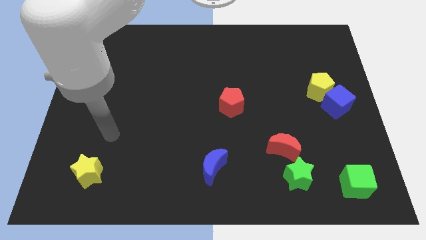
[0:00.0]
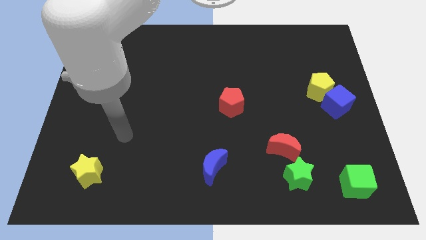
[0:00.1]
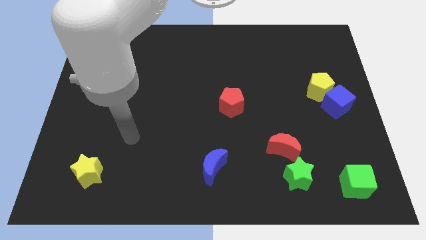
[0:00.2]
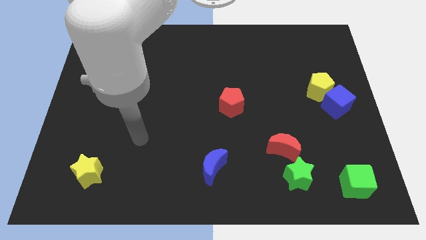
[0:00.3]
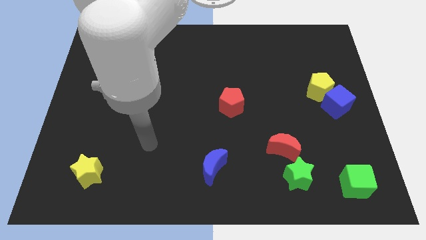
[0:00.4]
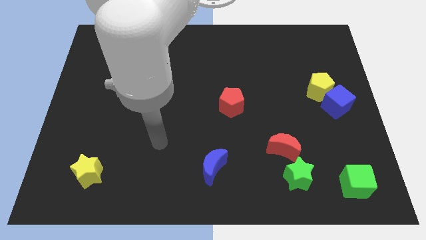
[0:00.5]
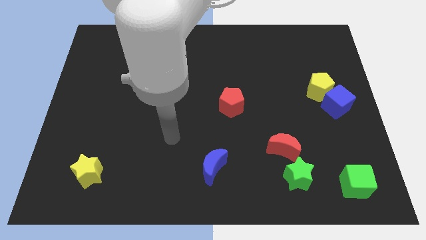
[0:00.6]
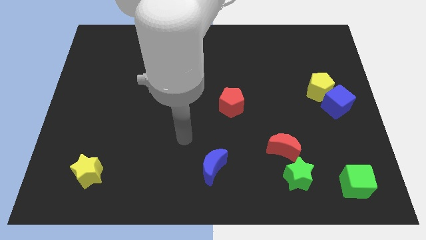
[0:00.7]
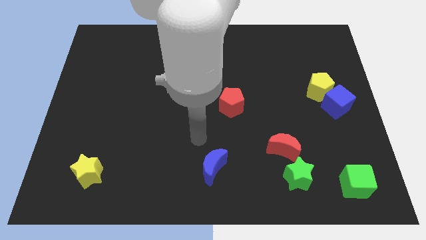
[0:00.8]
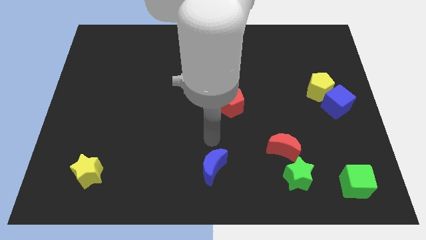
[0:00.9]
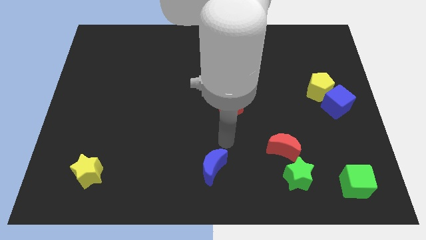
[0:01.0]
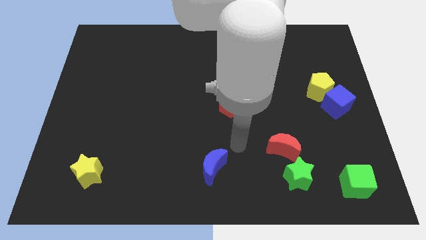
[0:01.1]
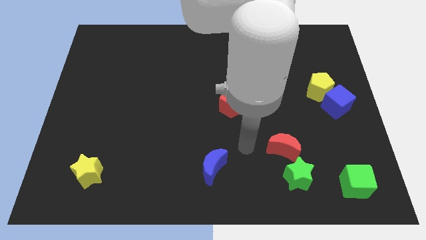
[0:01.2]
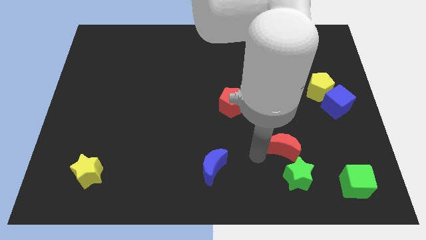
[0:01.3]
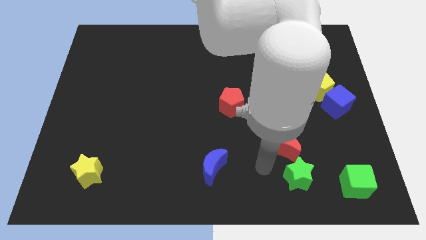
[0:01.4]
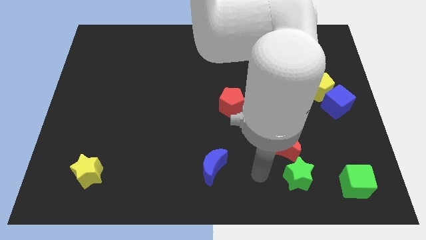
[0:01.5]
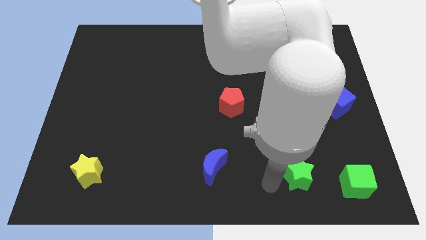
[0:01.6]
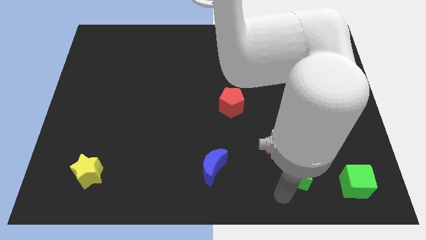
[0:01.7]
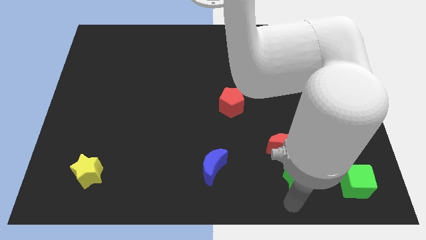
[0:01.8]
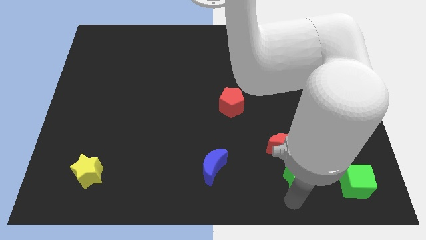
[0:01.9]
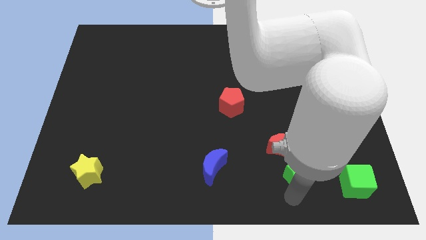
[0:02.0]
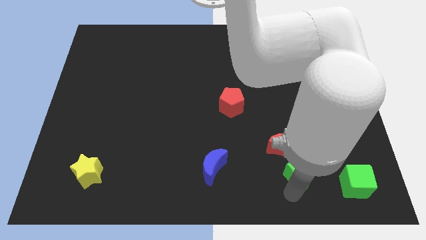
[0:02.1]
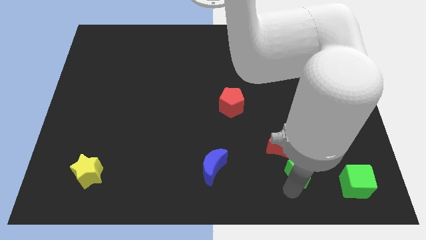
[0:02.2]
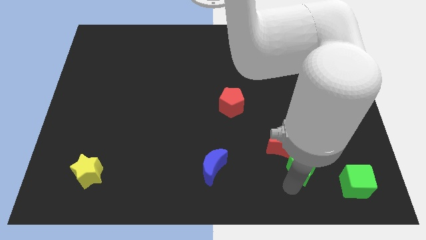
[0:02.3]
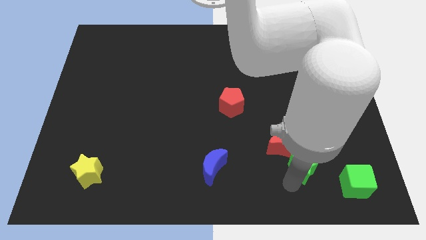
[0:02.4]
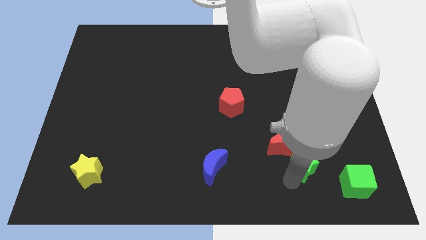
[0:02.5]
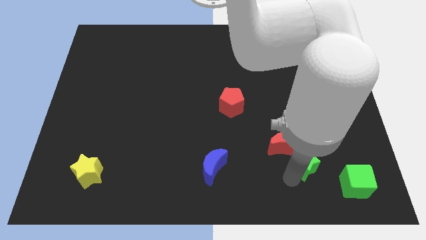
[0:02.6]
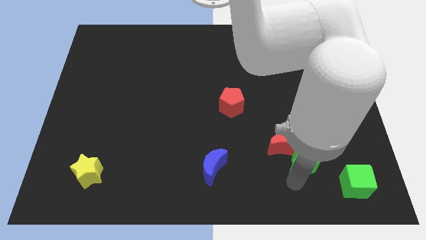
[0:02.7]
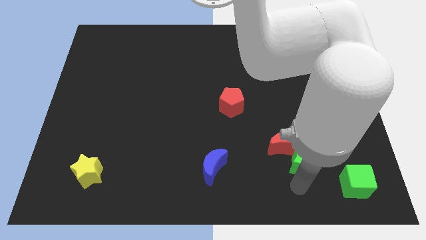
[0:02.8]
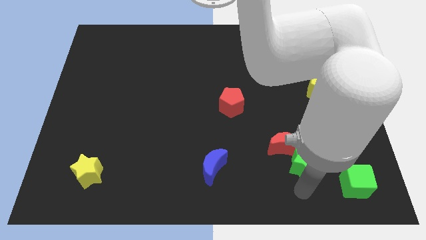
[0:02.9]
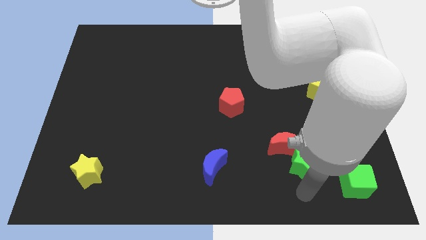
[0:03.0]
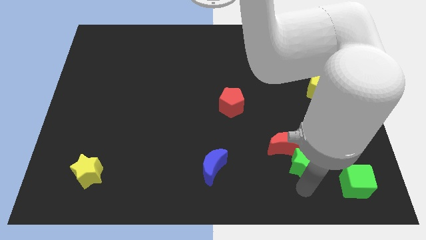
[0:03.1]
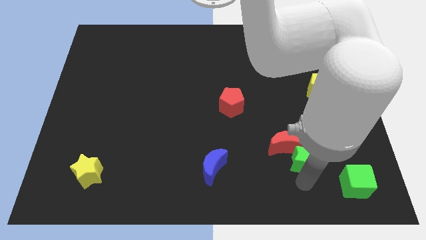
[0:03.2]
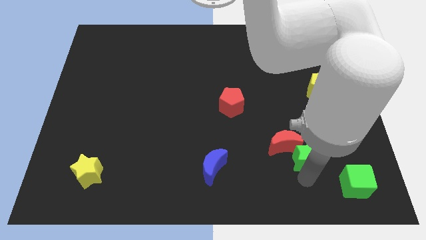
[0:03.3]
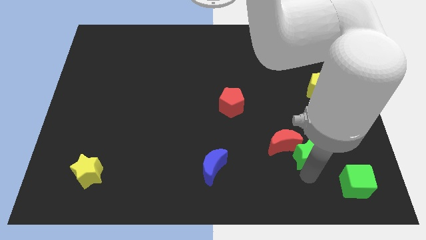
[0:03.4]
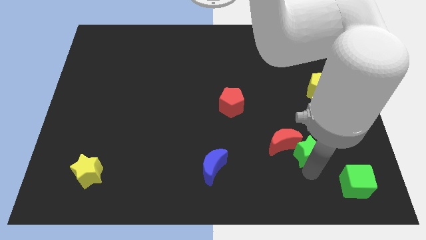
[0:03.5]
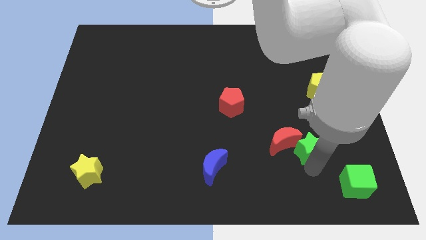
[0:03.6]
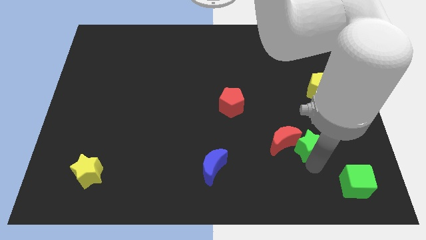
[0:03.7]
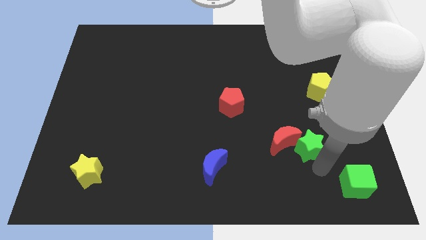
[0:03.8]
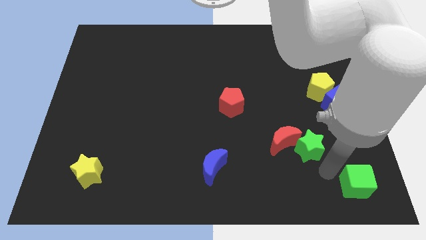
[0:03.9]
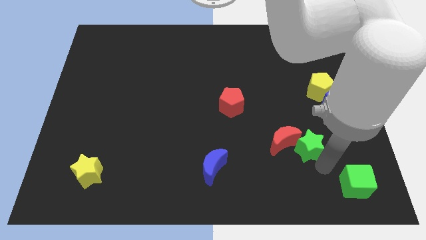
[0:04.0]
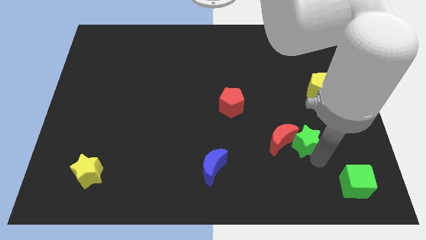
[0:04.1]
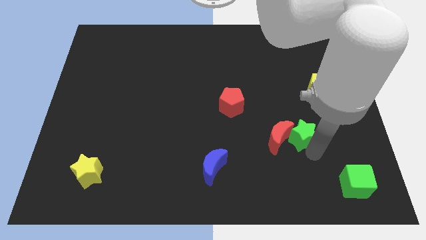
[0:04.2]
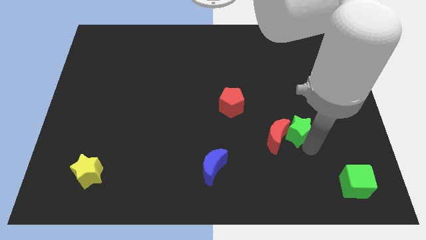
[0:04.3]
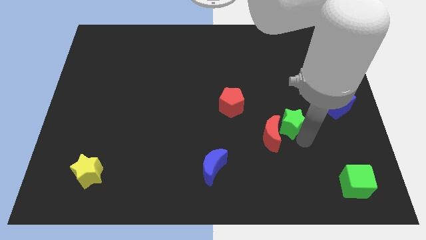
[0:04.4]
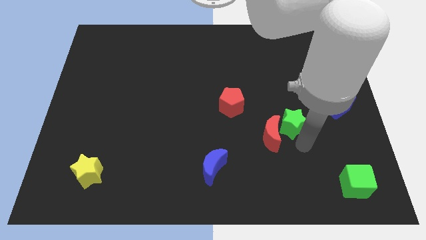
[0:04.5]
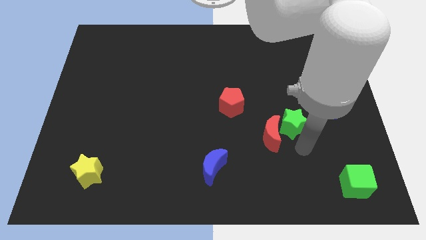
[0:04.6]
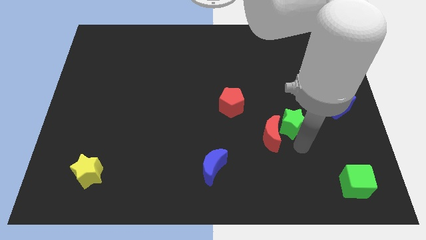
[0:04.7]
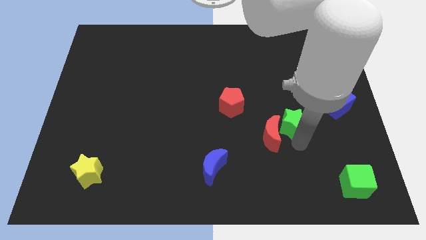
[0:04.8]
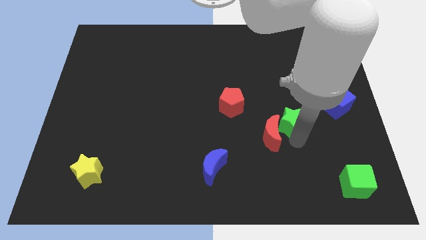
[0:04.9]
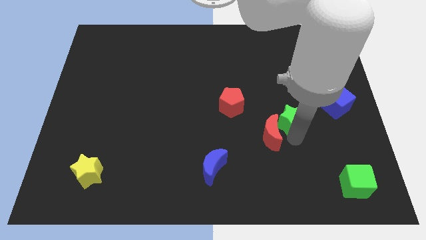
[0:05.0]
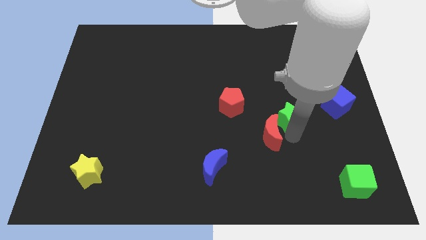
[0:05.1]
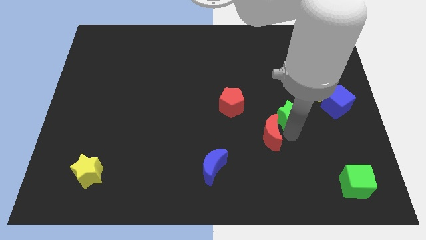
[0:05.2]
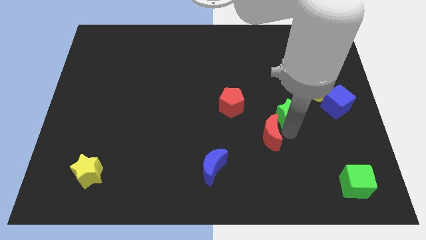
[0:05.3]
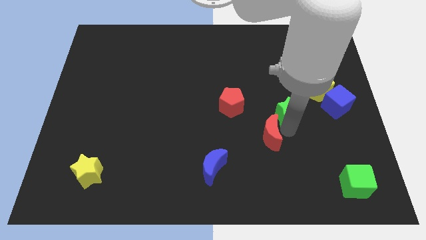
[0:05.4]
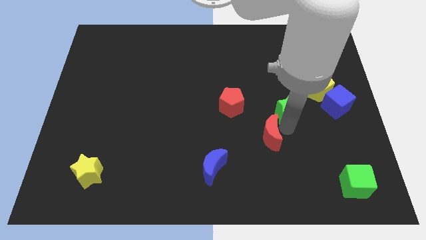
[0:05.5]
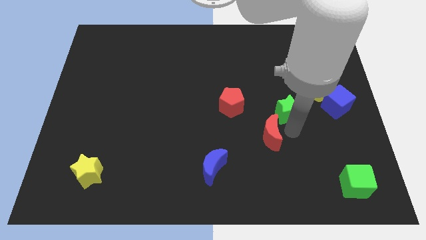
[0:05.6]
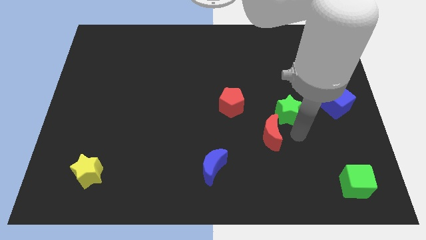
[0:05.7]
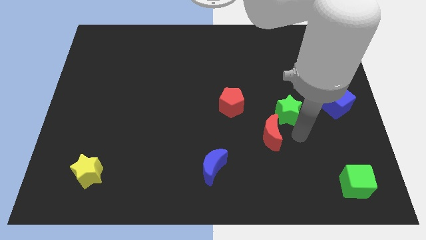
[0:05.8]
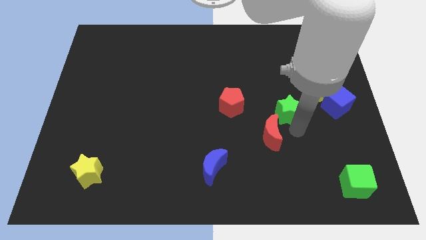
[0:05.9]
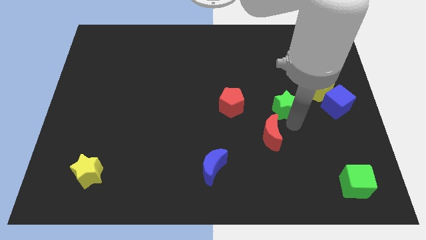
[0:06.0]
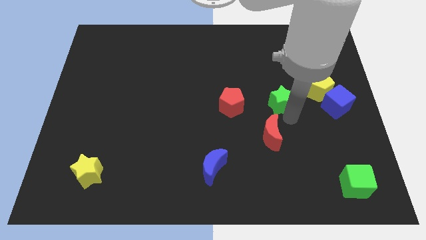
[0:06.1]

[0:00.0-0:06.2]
move the green star just left of the yellow pentagon

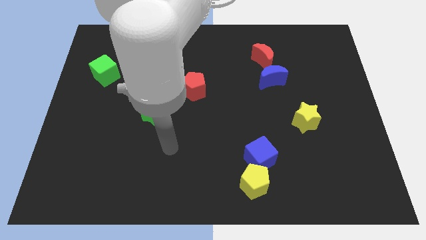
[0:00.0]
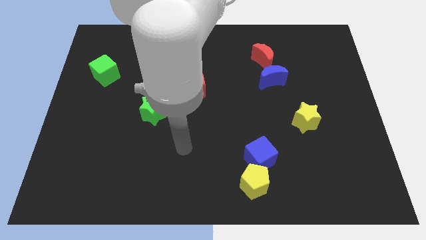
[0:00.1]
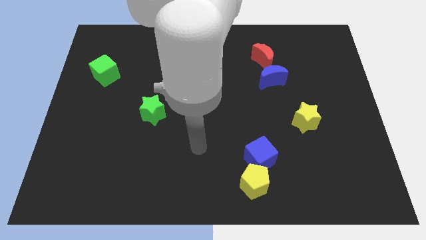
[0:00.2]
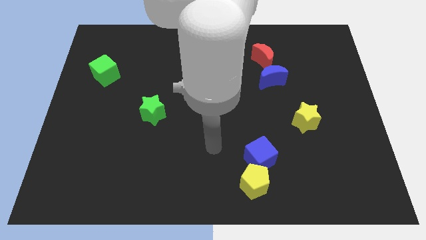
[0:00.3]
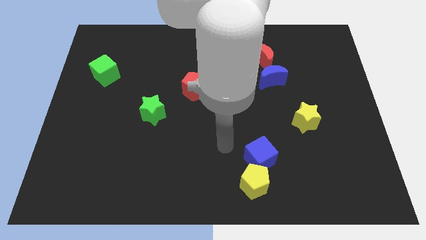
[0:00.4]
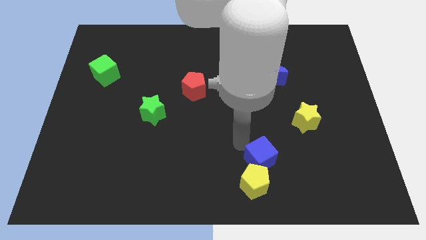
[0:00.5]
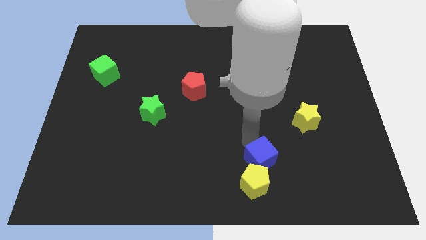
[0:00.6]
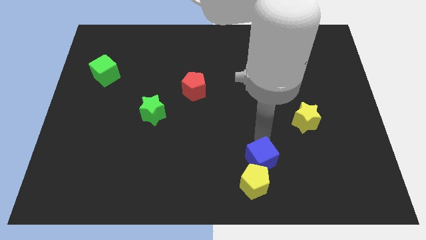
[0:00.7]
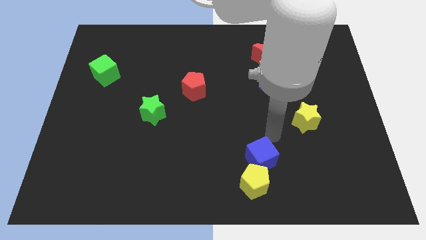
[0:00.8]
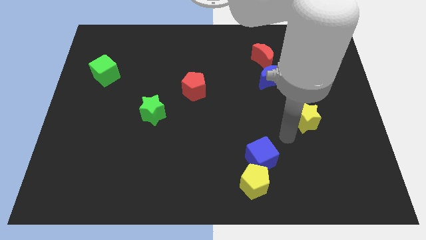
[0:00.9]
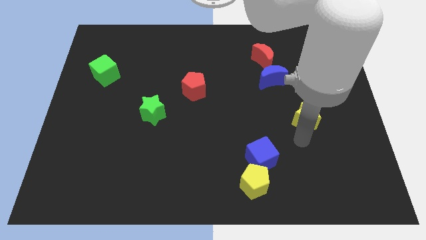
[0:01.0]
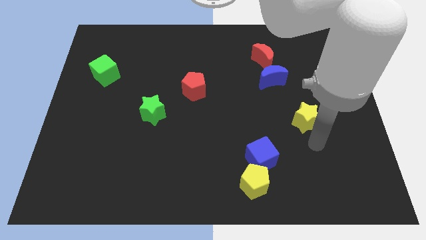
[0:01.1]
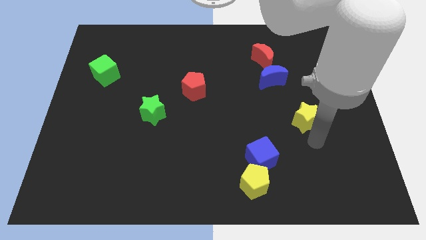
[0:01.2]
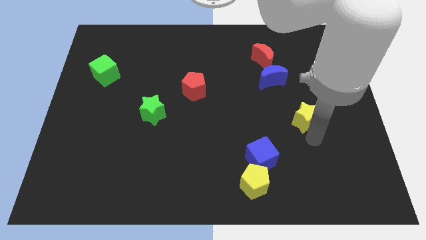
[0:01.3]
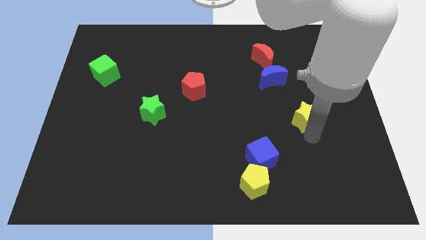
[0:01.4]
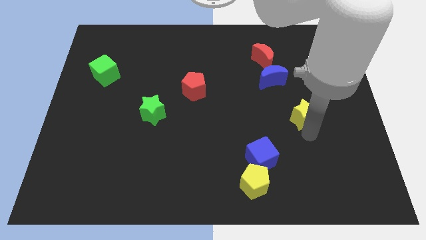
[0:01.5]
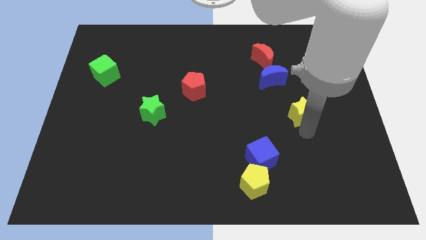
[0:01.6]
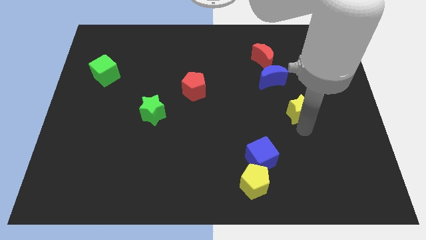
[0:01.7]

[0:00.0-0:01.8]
put the yellow star to the bottom right of the blue moon
